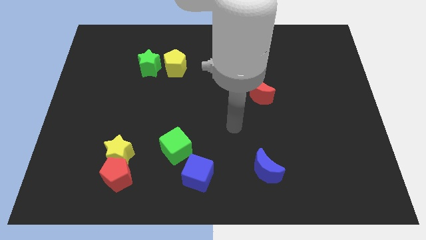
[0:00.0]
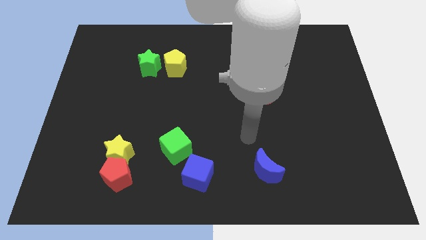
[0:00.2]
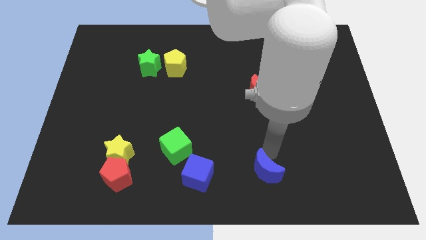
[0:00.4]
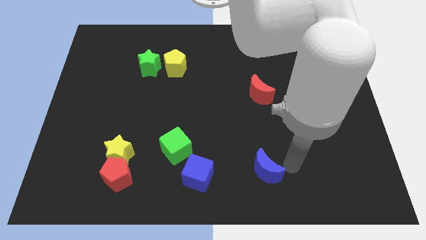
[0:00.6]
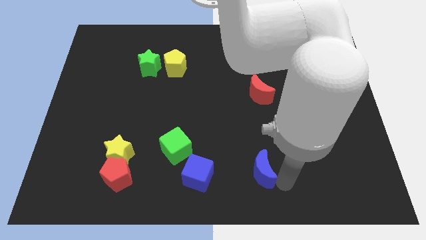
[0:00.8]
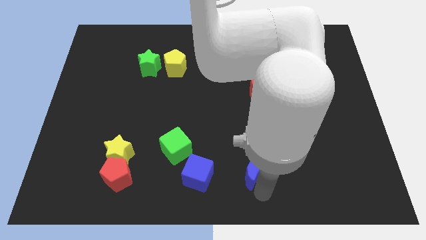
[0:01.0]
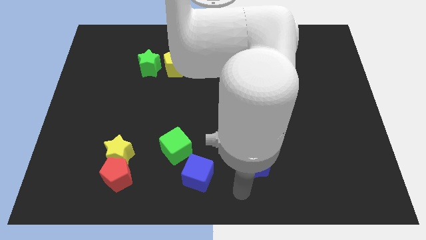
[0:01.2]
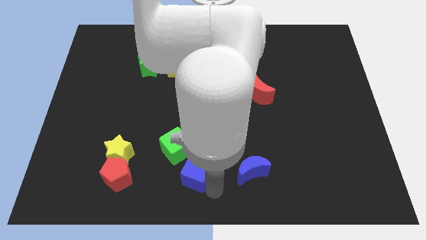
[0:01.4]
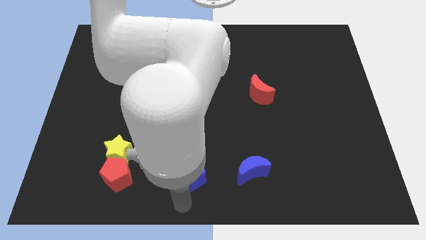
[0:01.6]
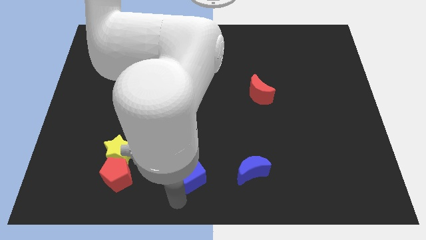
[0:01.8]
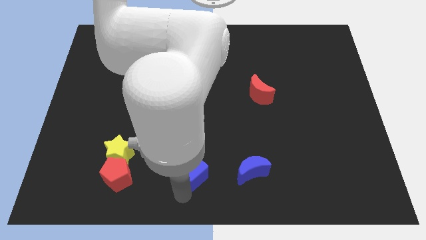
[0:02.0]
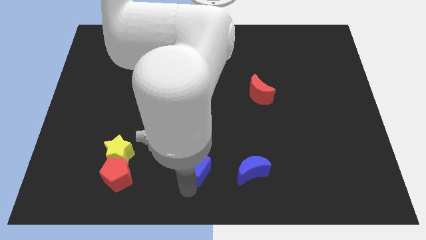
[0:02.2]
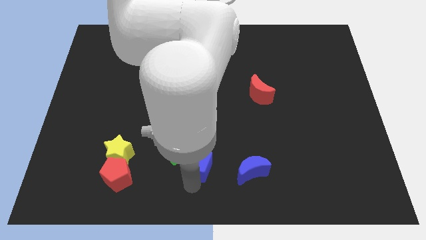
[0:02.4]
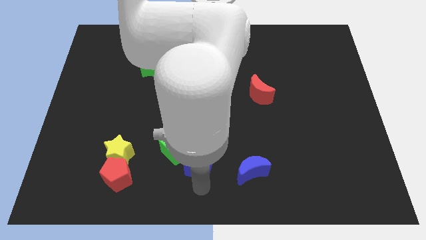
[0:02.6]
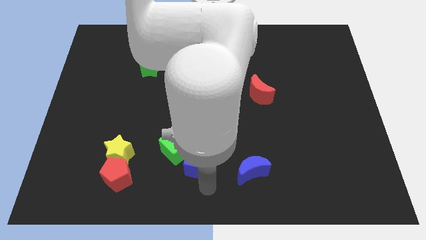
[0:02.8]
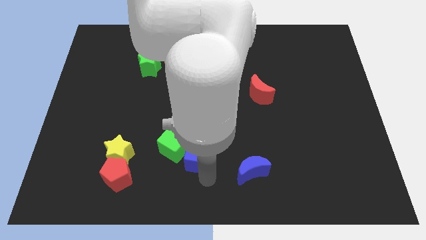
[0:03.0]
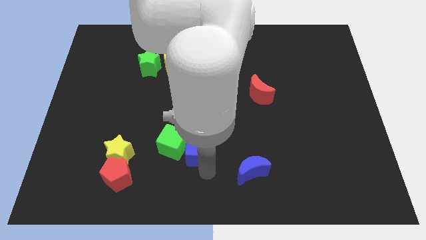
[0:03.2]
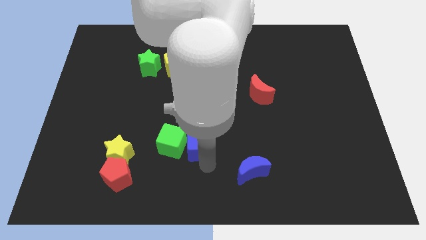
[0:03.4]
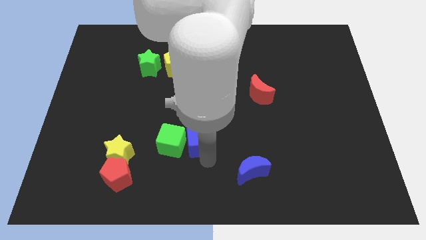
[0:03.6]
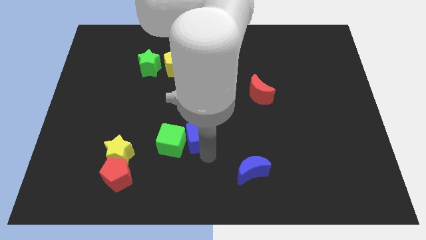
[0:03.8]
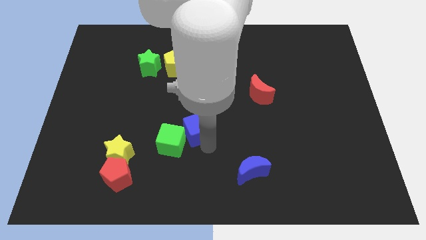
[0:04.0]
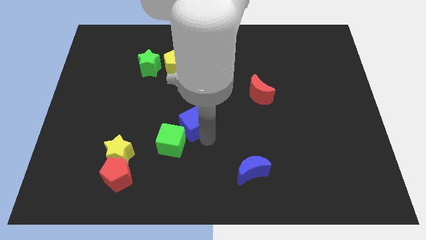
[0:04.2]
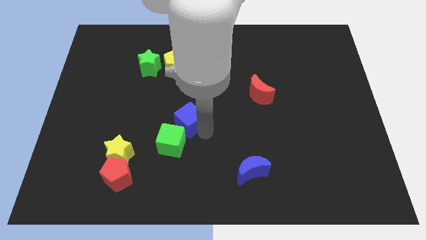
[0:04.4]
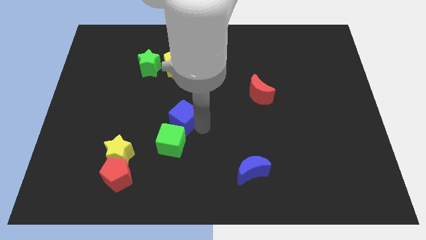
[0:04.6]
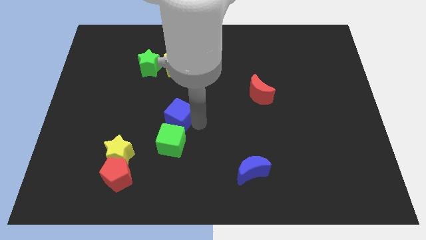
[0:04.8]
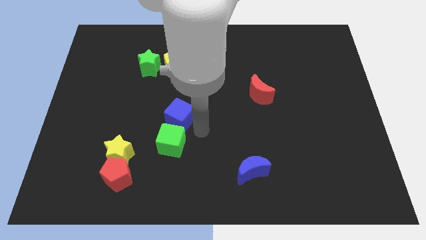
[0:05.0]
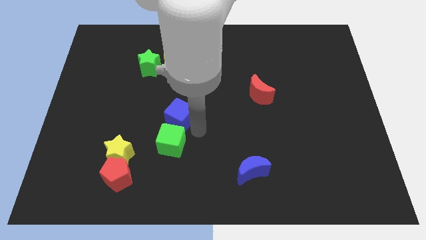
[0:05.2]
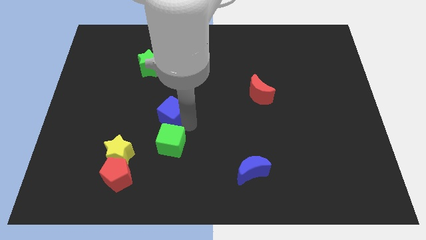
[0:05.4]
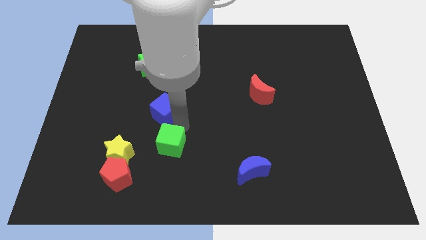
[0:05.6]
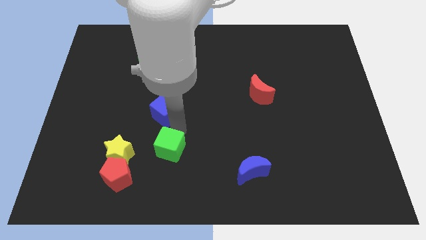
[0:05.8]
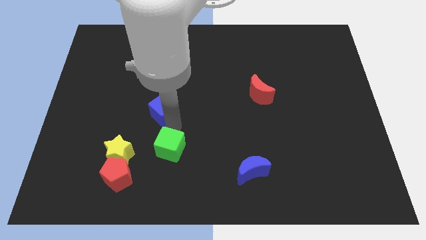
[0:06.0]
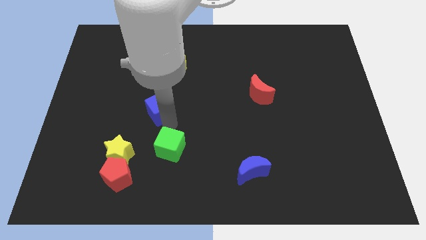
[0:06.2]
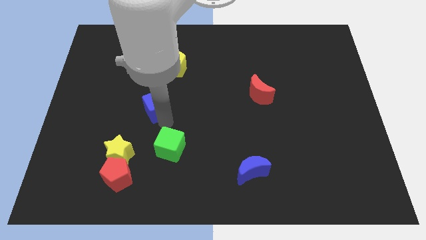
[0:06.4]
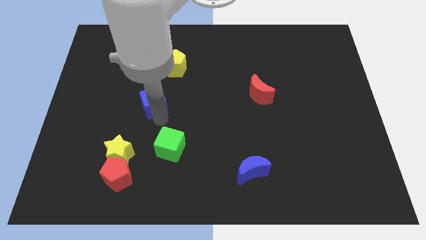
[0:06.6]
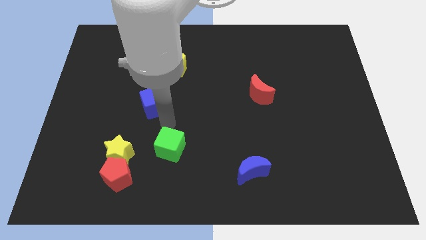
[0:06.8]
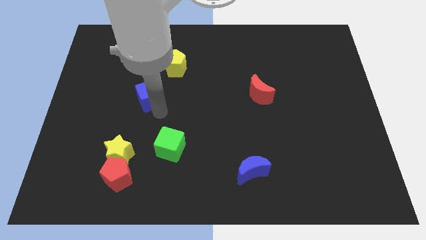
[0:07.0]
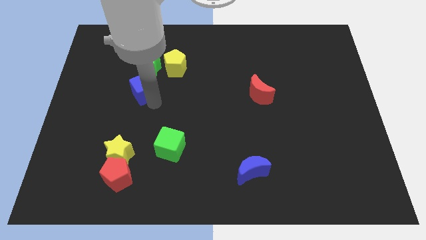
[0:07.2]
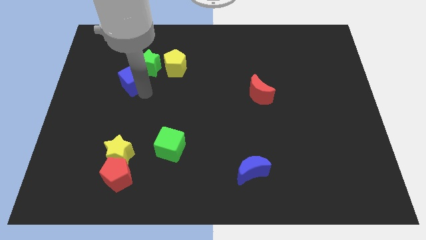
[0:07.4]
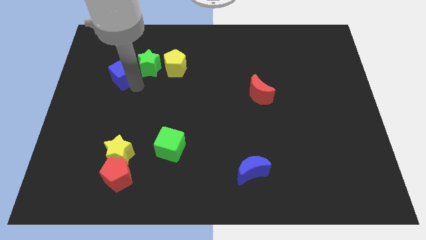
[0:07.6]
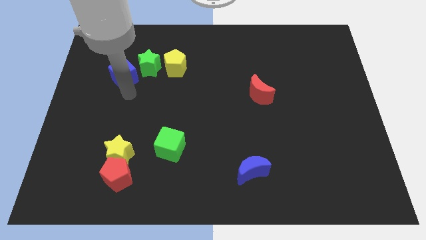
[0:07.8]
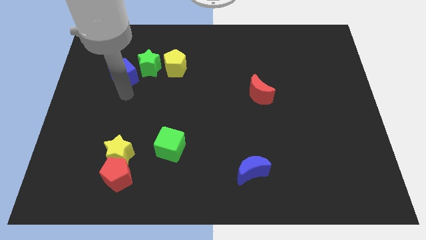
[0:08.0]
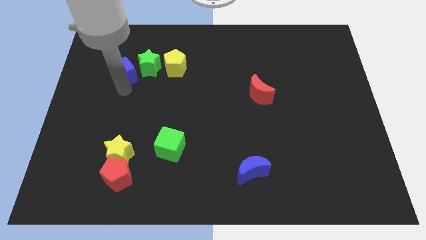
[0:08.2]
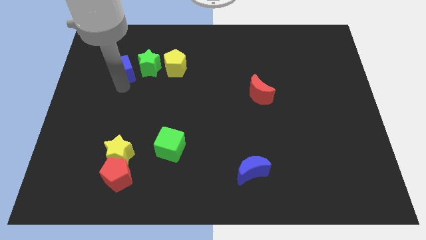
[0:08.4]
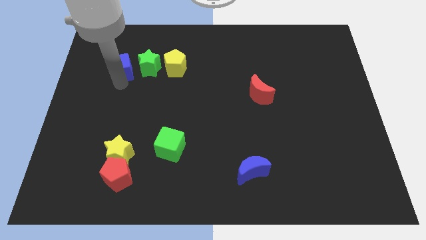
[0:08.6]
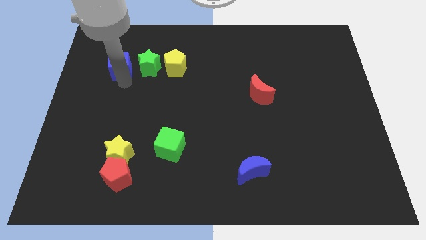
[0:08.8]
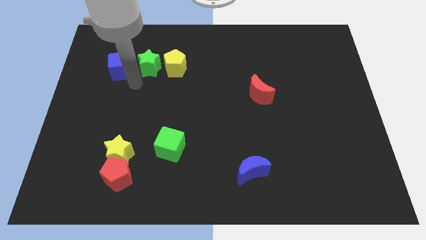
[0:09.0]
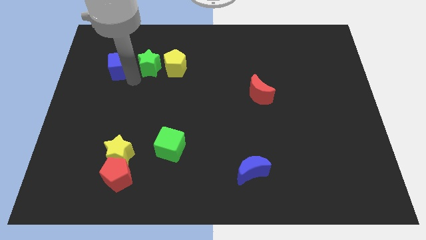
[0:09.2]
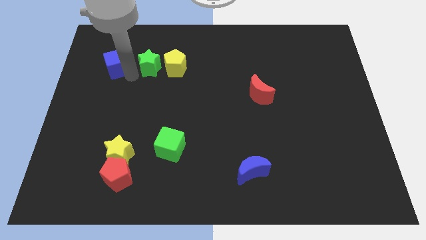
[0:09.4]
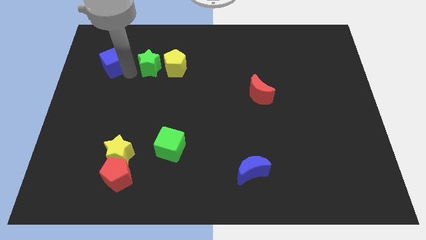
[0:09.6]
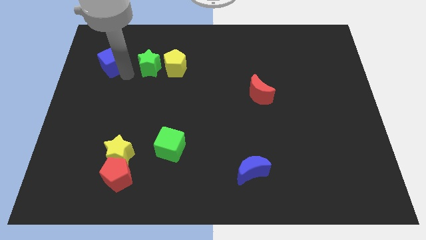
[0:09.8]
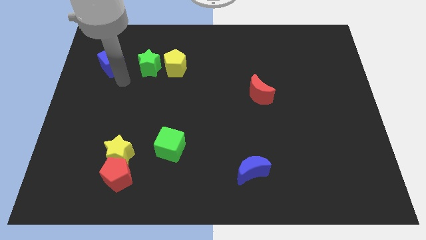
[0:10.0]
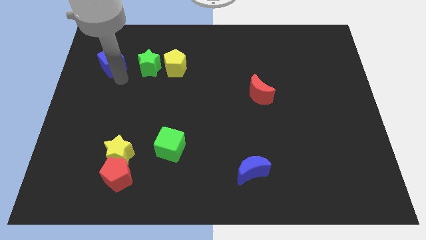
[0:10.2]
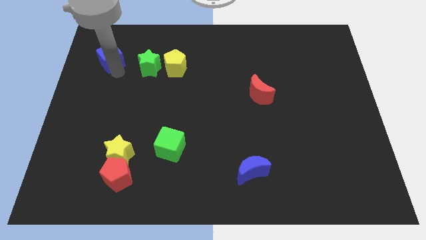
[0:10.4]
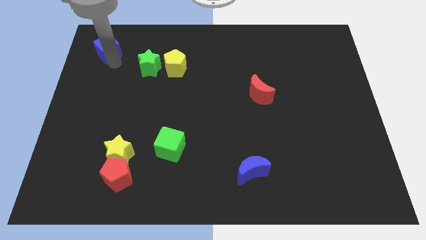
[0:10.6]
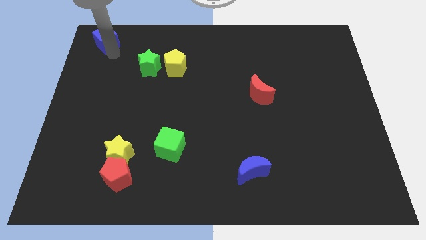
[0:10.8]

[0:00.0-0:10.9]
move the blue cube to the top left corner

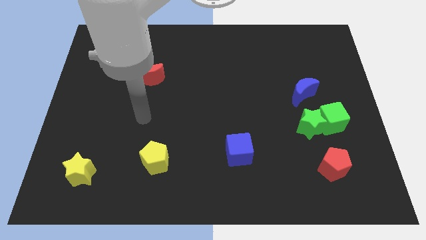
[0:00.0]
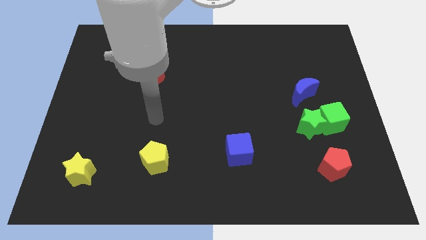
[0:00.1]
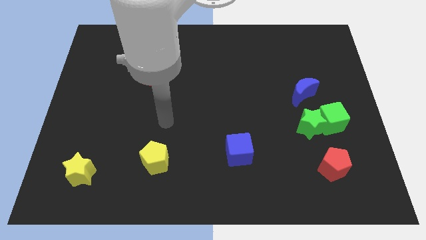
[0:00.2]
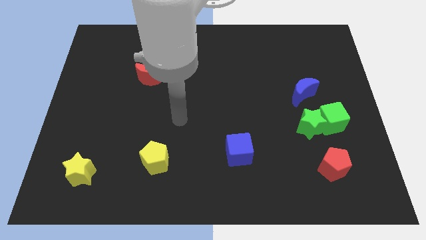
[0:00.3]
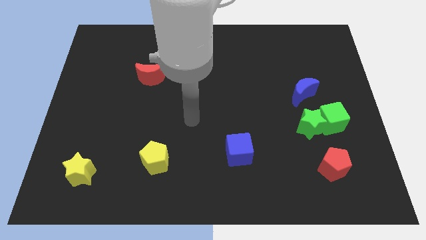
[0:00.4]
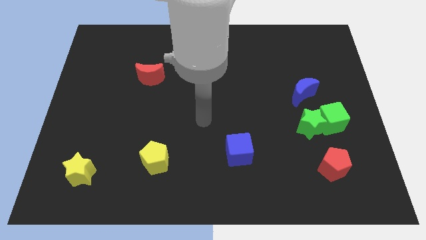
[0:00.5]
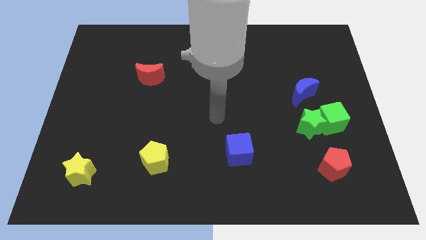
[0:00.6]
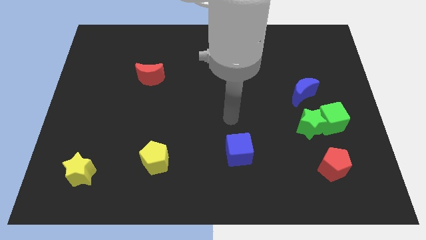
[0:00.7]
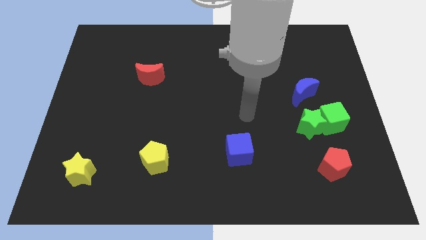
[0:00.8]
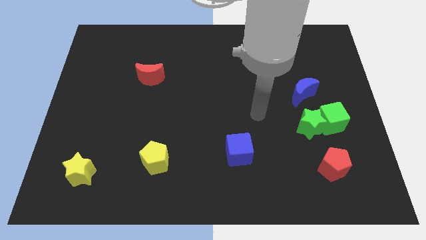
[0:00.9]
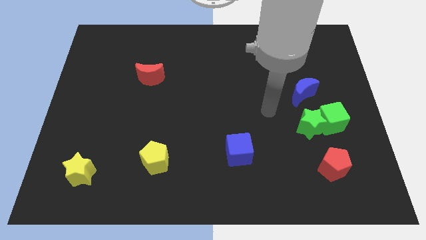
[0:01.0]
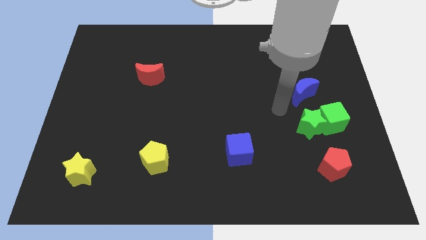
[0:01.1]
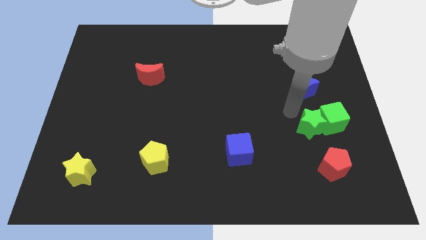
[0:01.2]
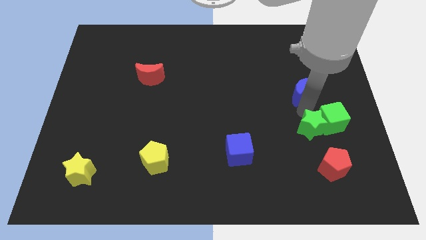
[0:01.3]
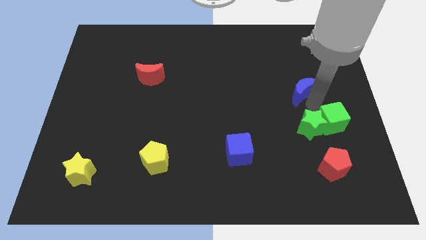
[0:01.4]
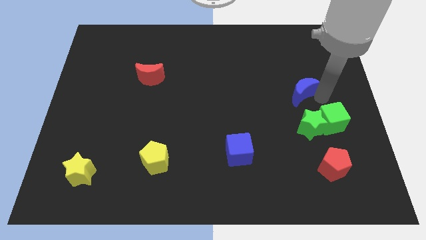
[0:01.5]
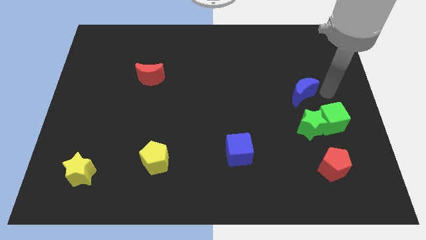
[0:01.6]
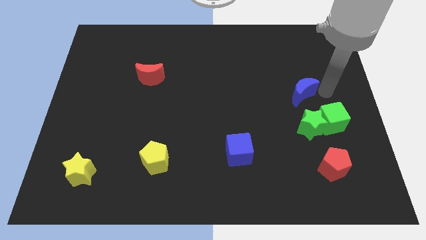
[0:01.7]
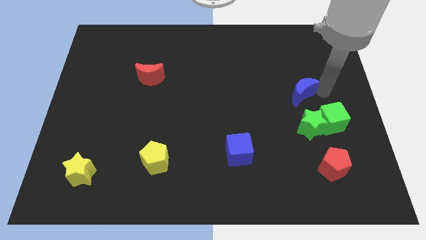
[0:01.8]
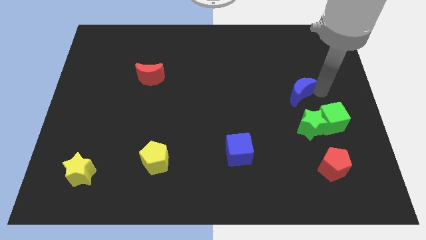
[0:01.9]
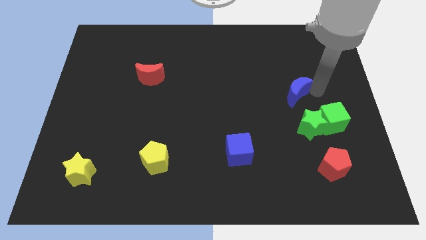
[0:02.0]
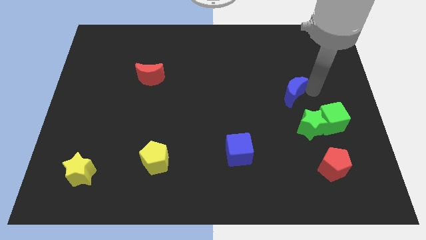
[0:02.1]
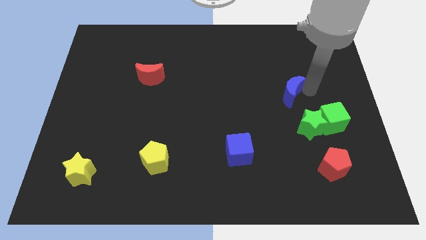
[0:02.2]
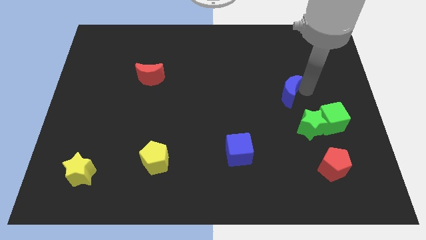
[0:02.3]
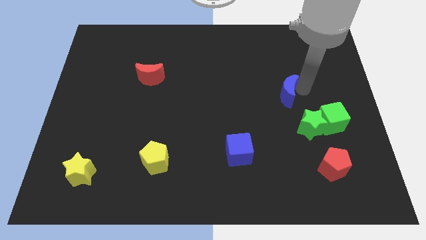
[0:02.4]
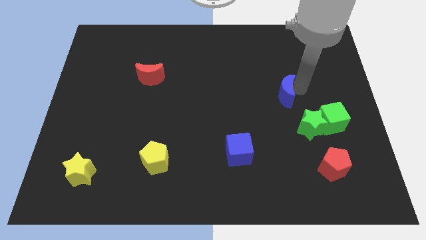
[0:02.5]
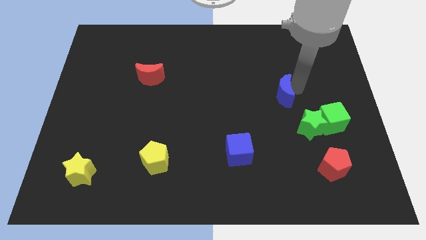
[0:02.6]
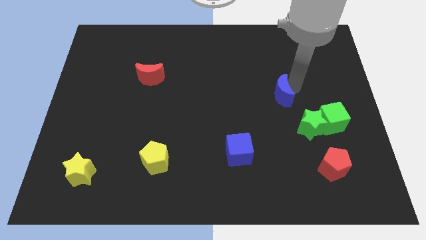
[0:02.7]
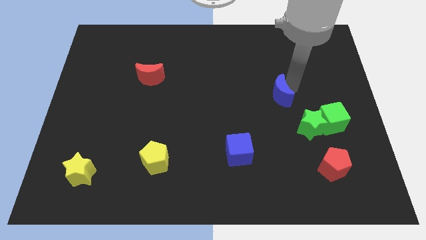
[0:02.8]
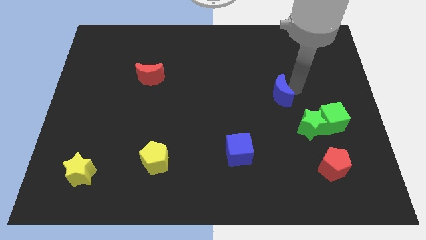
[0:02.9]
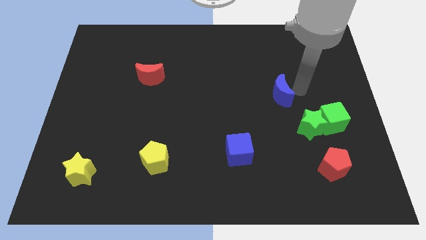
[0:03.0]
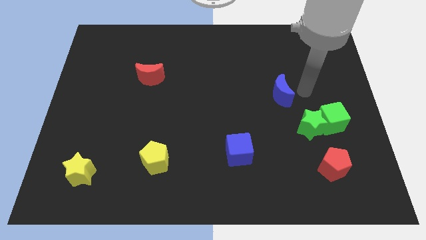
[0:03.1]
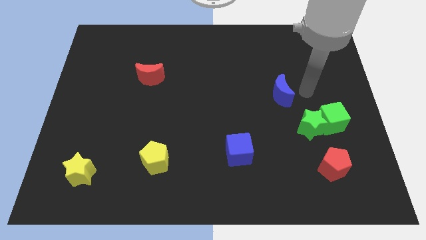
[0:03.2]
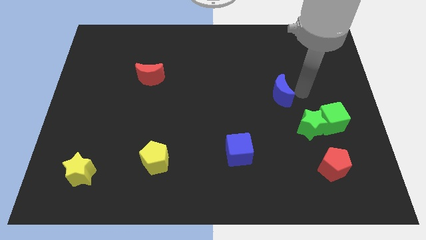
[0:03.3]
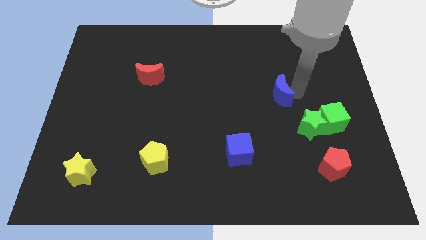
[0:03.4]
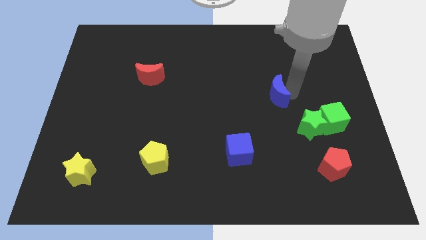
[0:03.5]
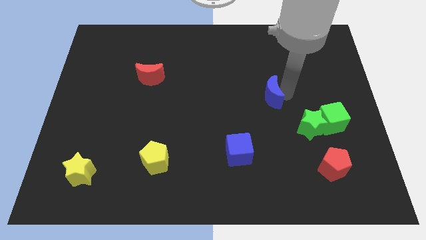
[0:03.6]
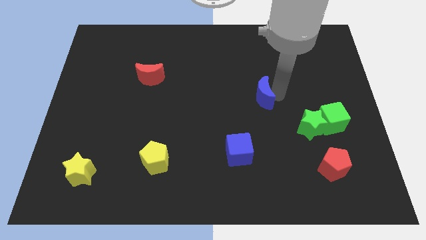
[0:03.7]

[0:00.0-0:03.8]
slide the blue moon to the middle
